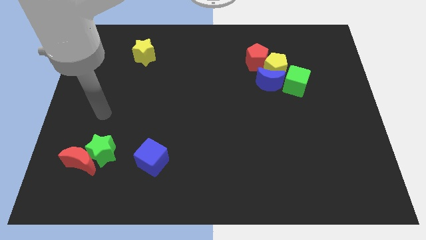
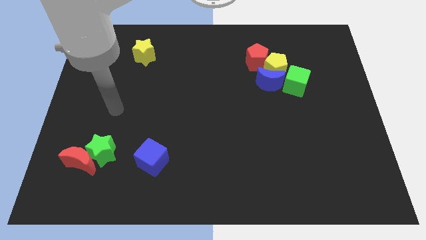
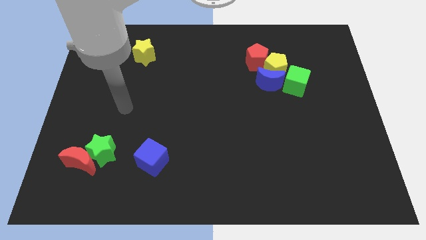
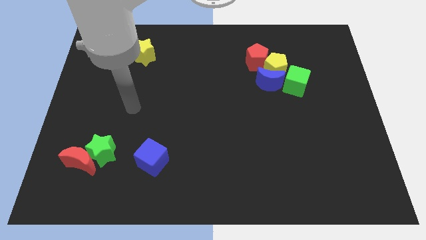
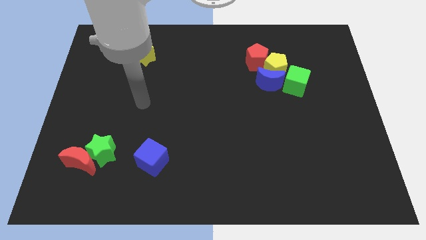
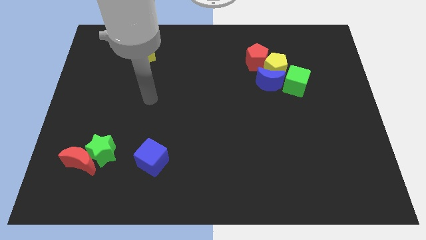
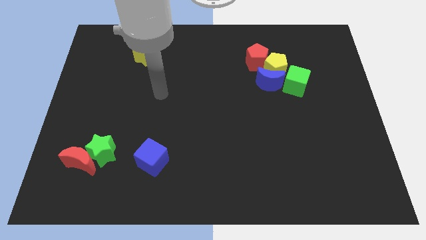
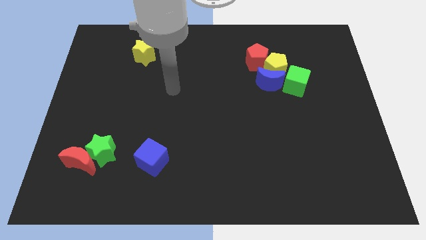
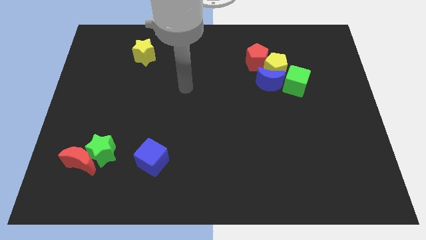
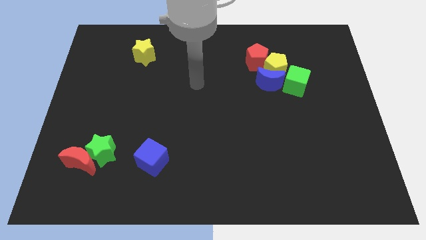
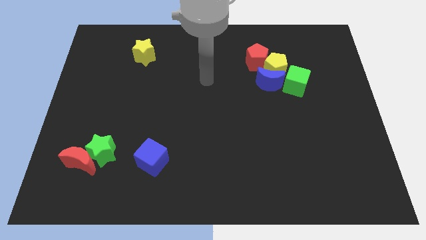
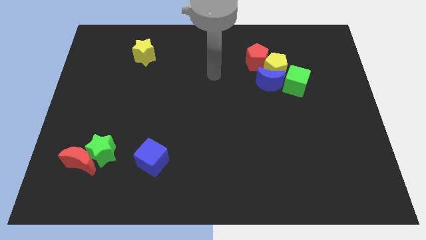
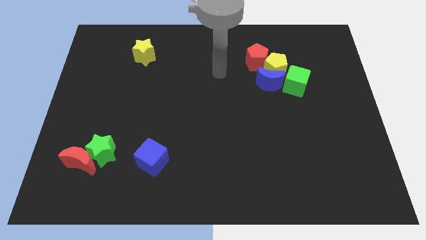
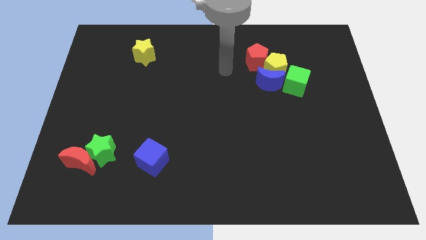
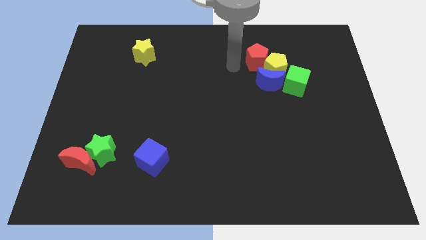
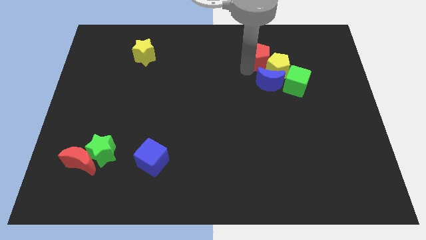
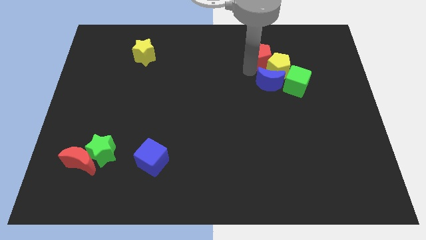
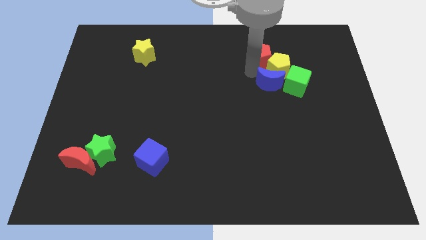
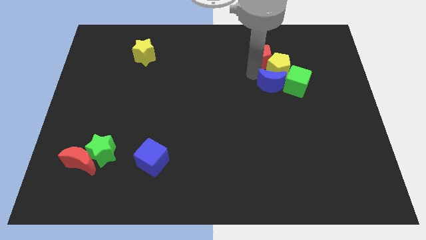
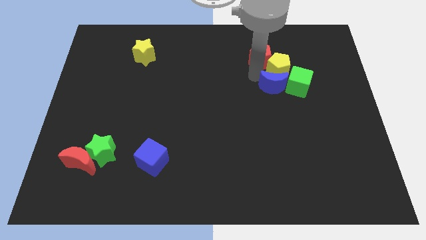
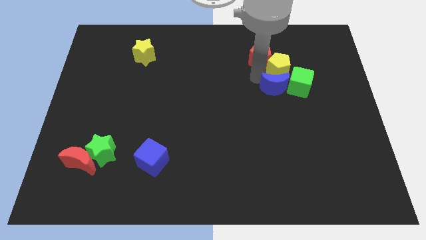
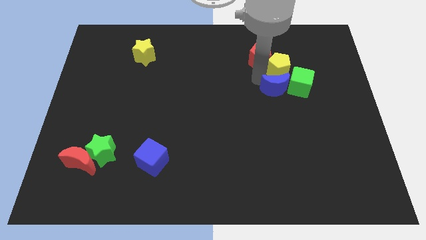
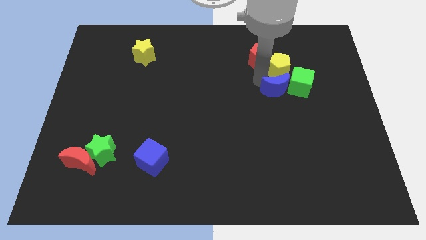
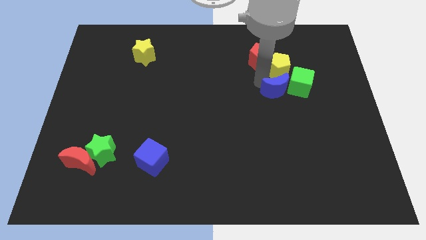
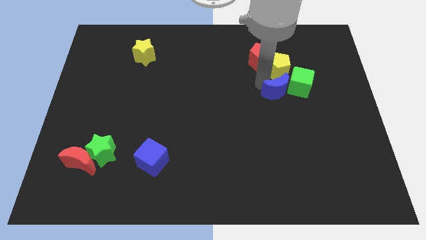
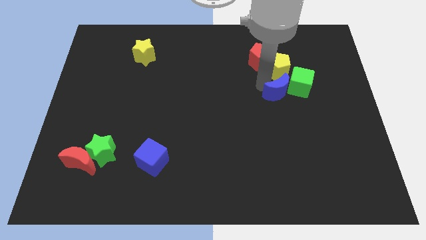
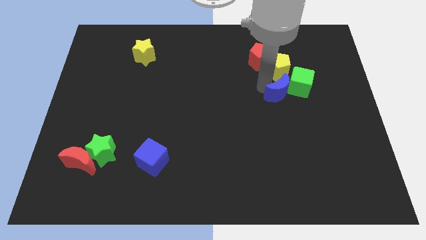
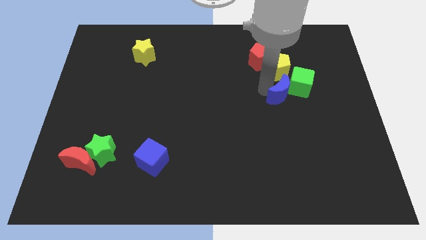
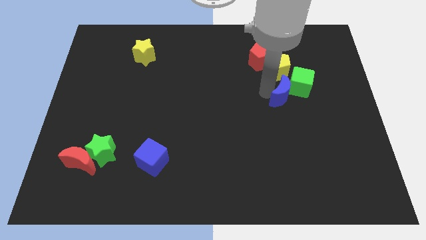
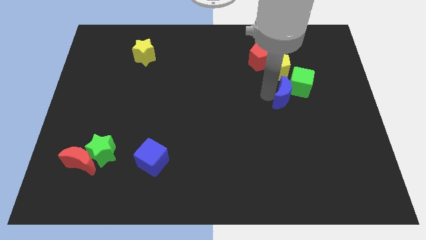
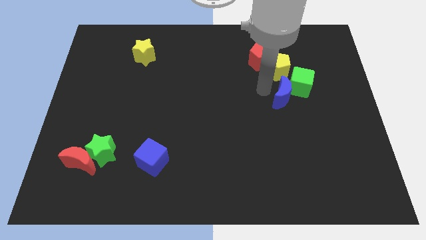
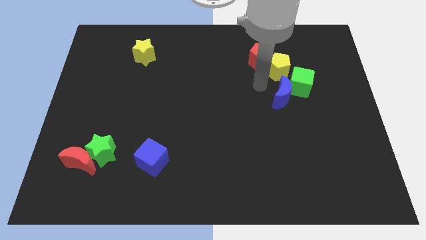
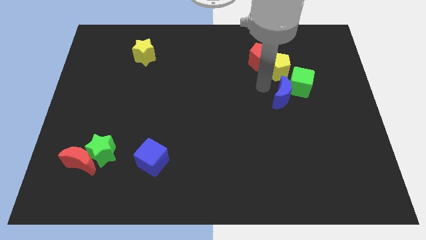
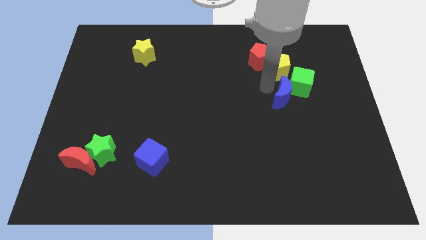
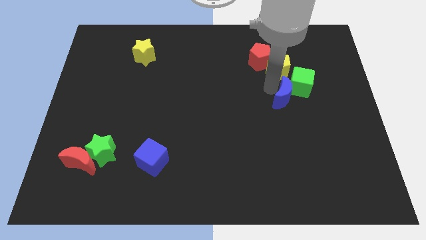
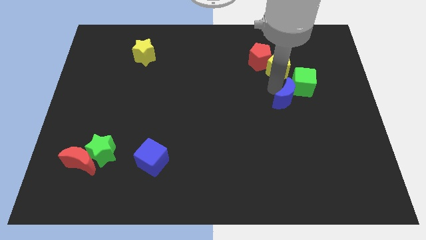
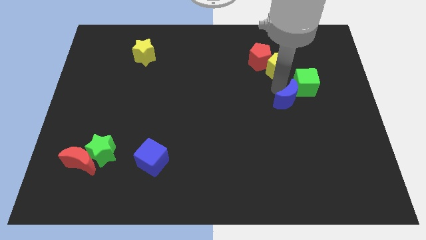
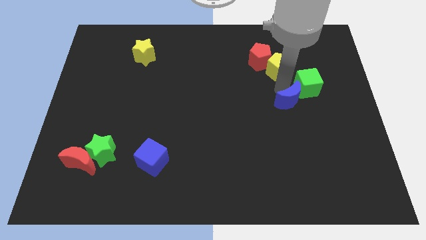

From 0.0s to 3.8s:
move the blue moon diagonally downwards and to the right somewhat

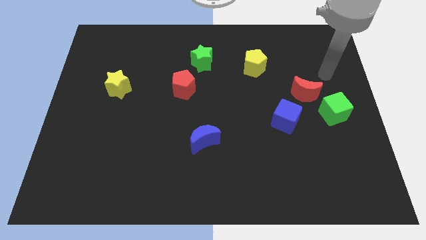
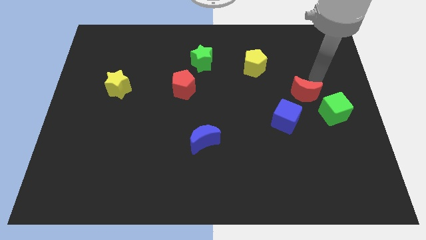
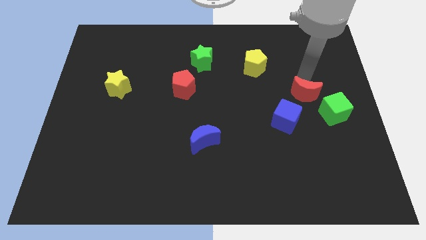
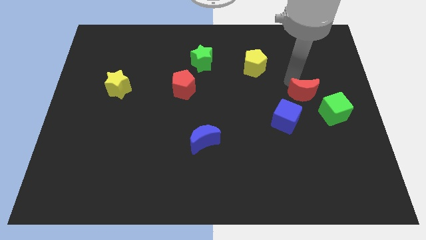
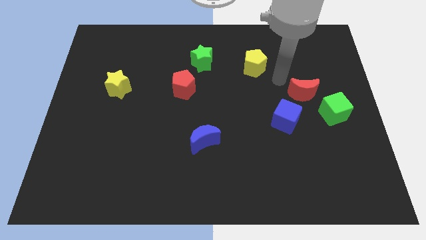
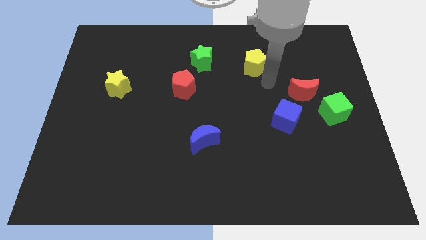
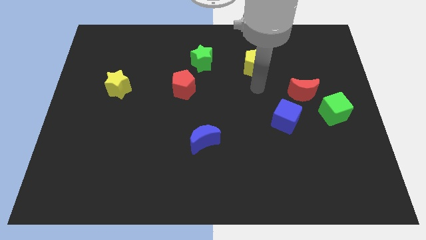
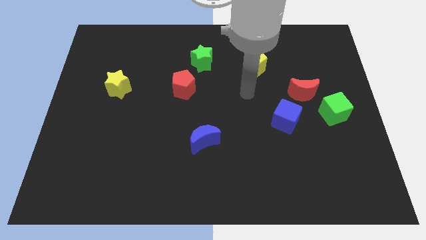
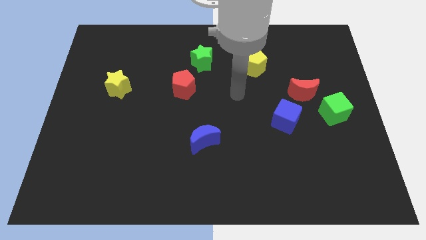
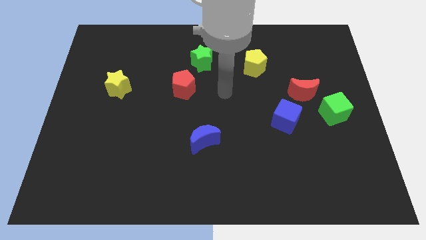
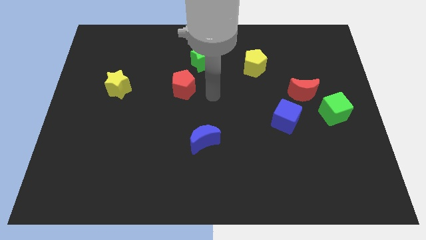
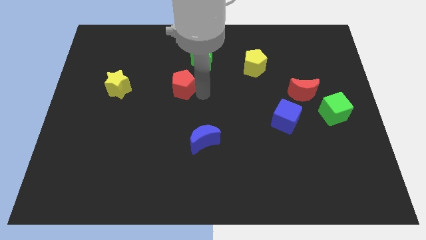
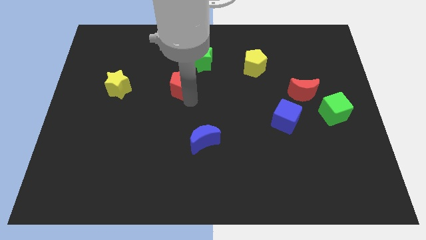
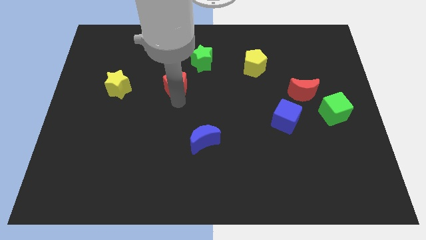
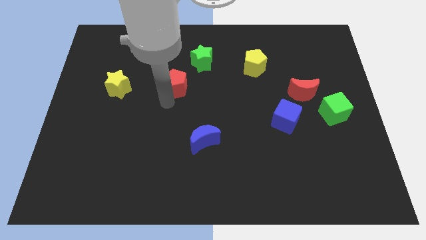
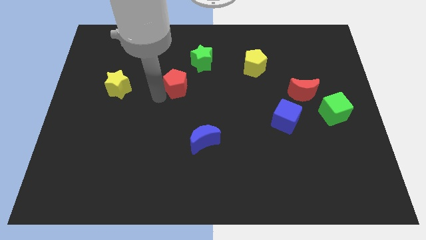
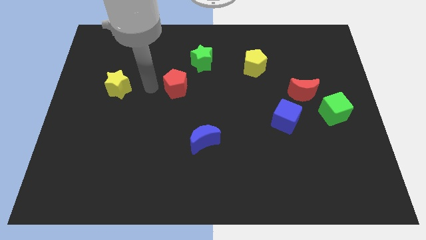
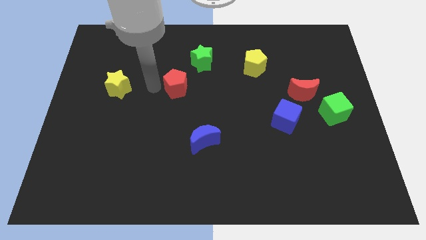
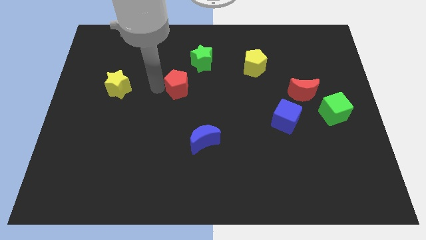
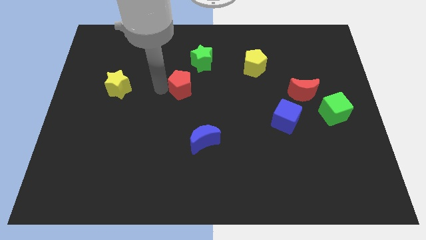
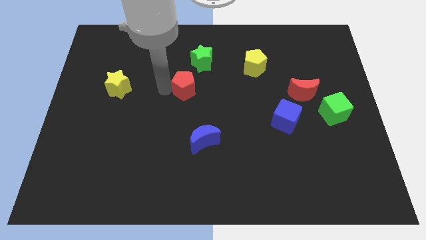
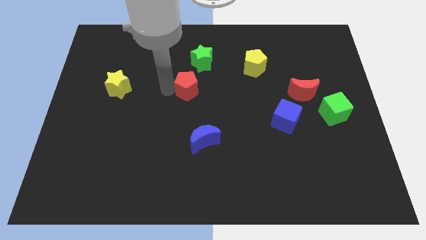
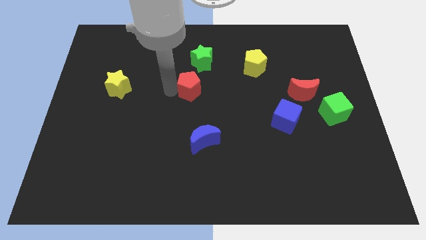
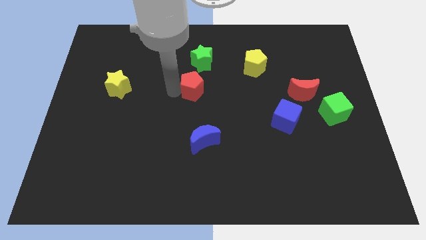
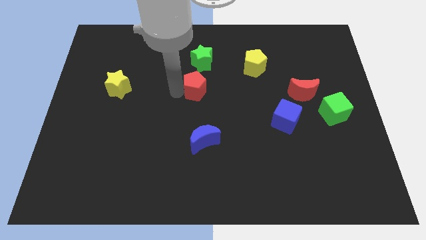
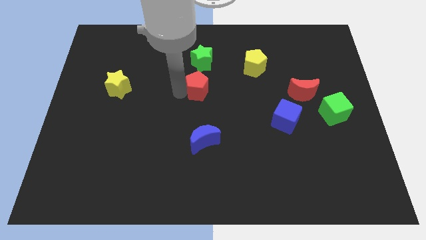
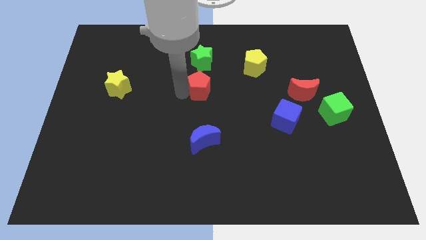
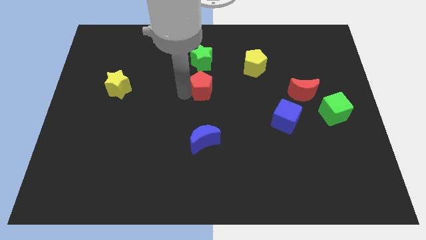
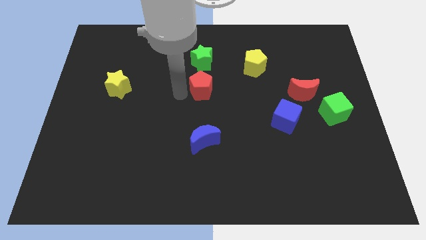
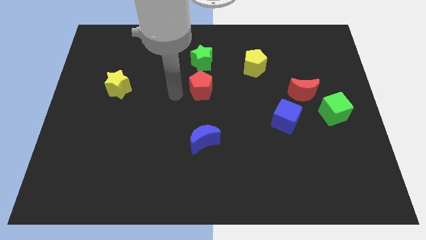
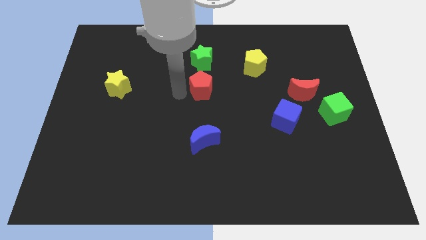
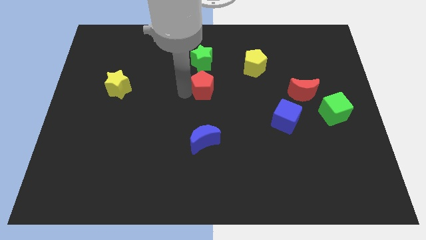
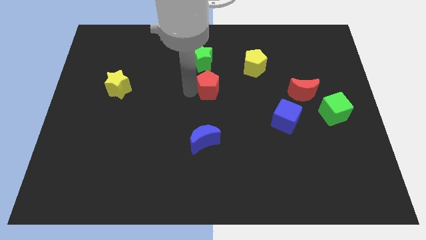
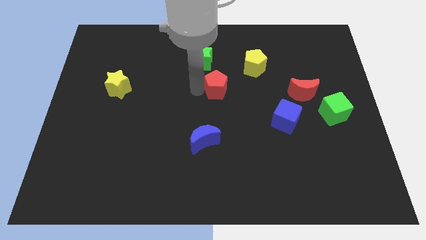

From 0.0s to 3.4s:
push the red pentagon right a bit

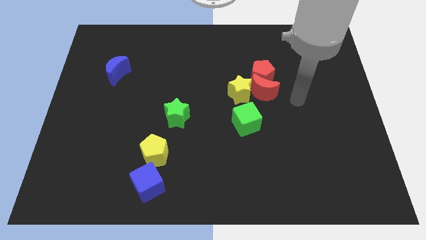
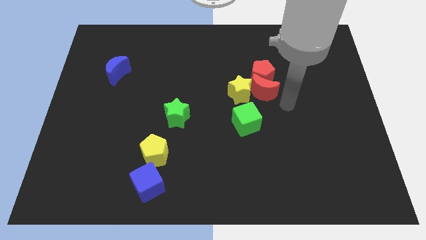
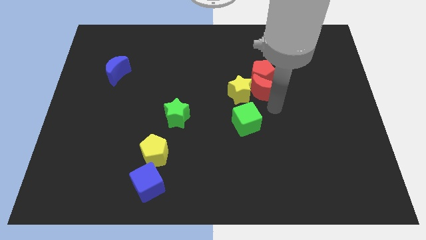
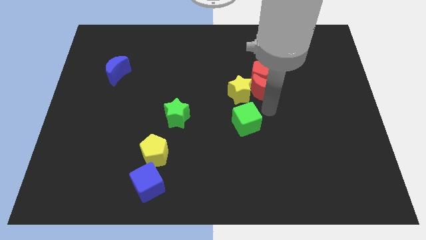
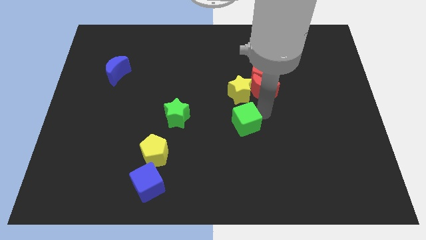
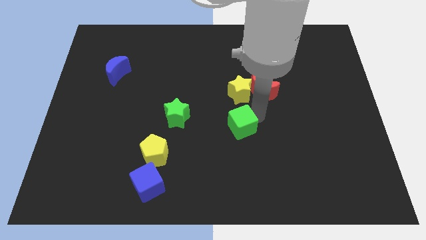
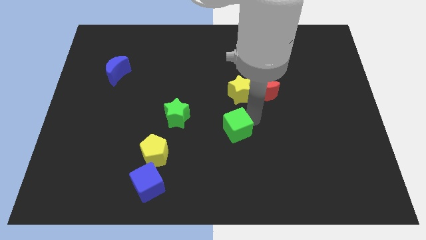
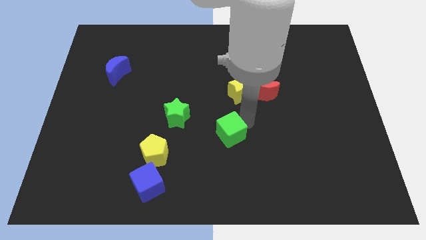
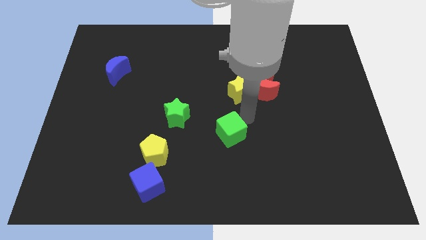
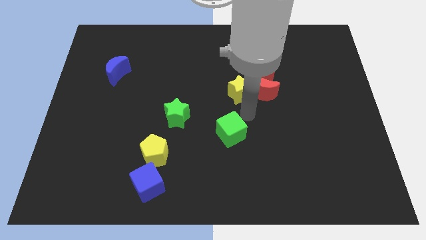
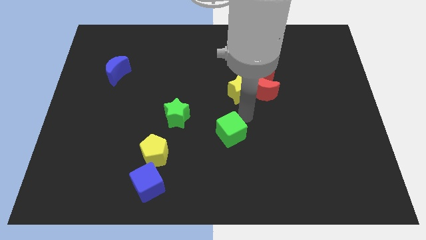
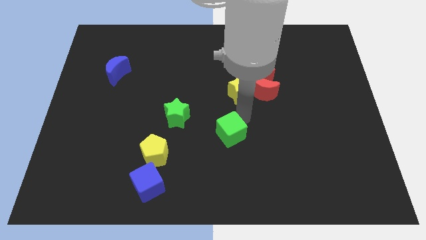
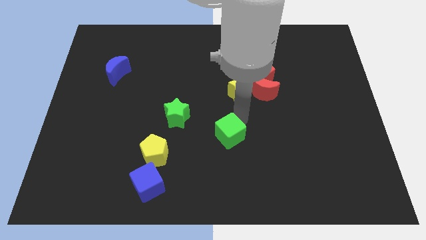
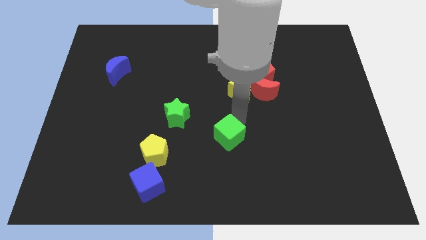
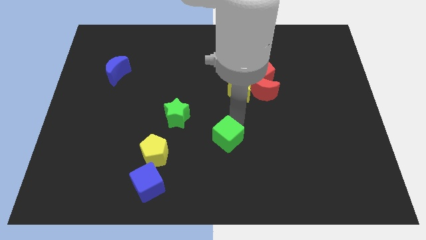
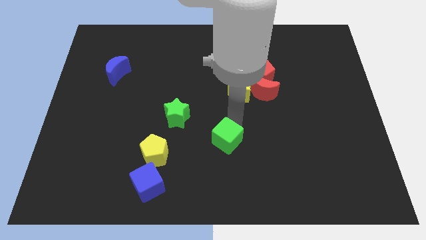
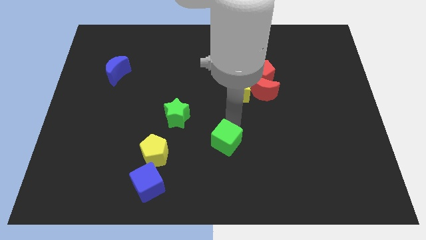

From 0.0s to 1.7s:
move the green cube slightly diagonally down and to the left
